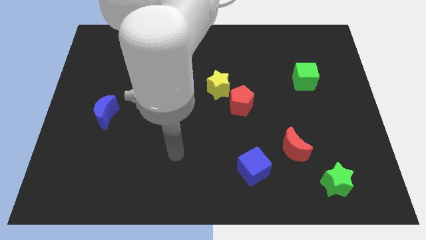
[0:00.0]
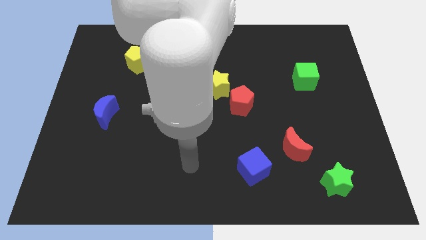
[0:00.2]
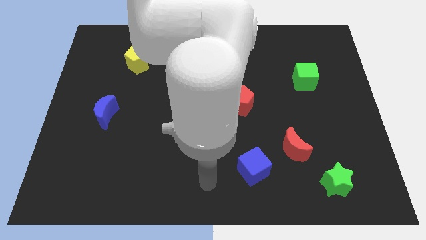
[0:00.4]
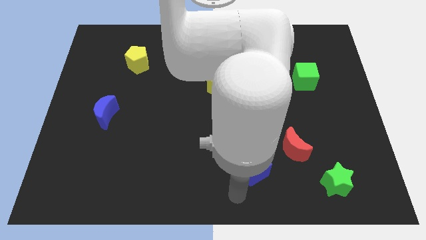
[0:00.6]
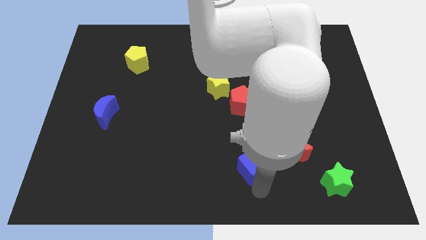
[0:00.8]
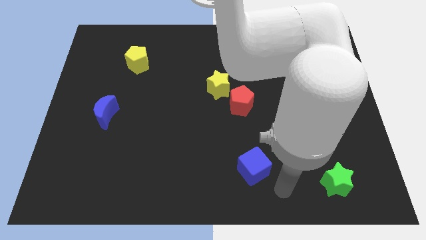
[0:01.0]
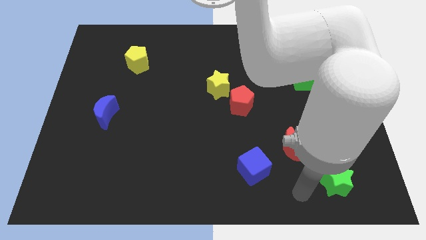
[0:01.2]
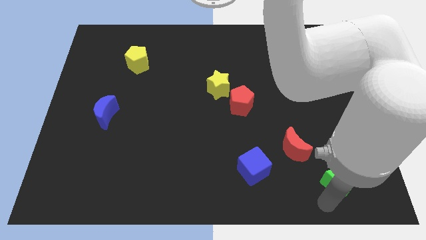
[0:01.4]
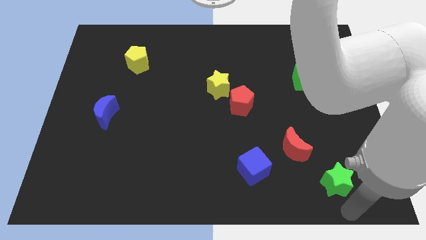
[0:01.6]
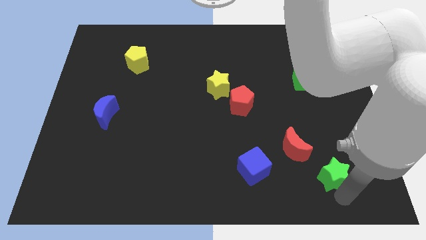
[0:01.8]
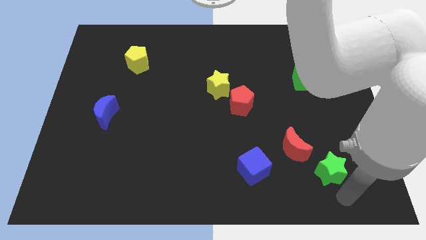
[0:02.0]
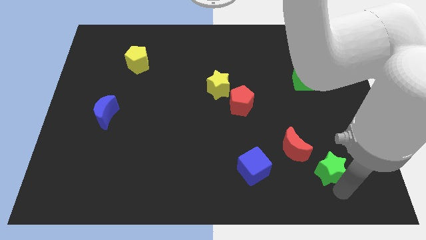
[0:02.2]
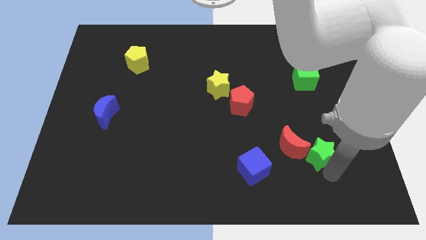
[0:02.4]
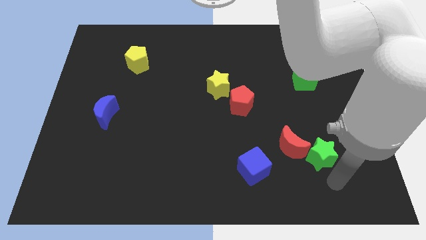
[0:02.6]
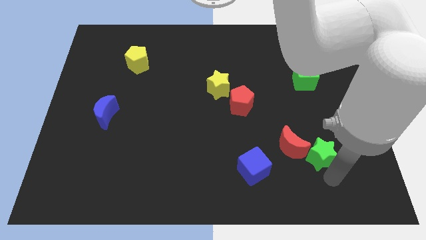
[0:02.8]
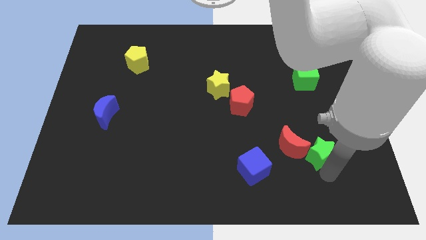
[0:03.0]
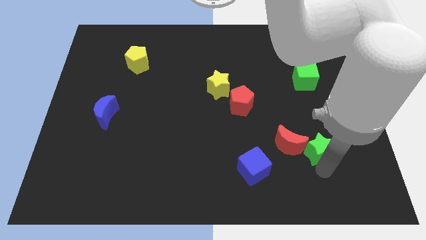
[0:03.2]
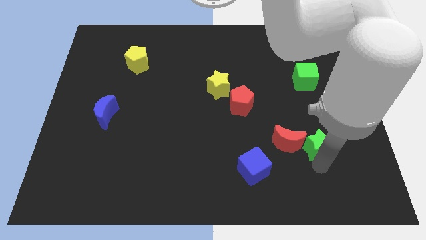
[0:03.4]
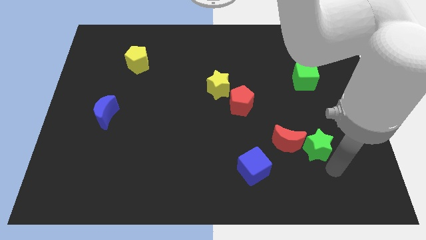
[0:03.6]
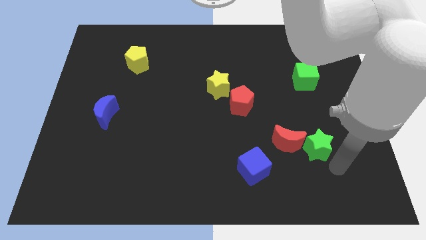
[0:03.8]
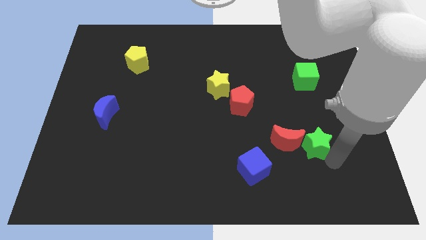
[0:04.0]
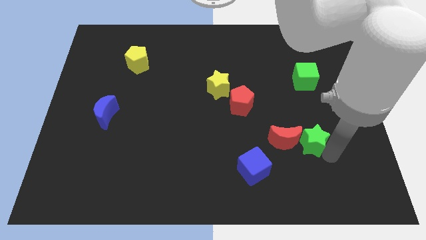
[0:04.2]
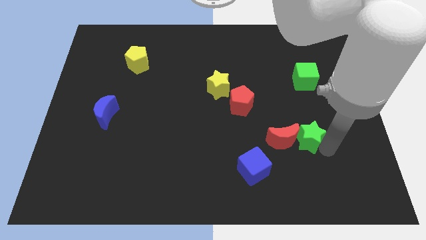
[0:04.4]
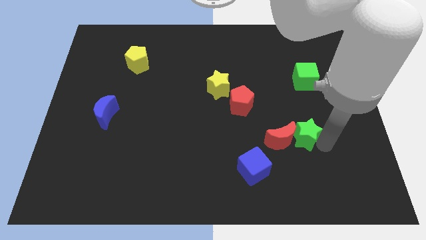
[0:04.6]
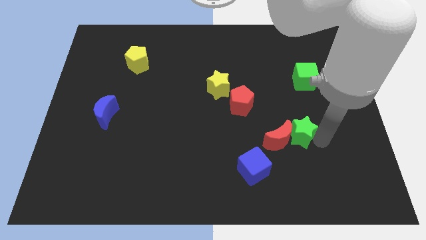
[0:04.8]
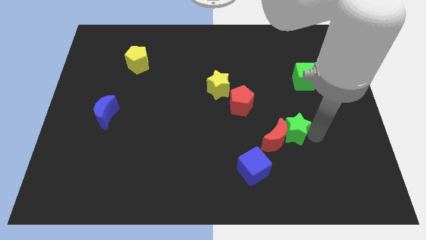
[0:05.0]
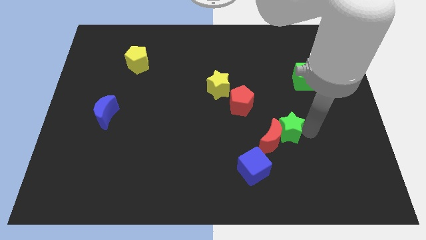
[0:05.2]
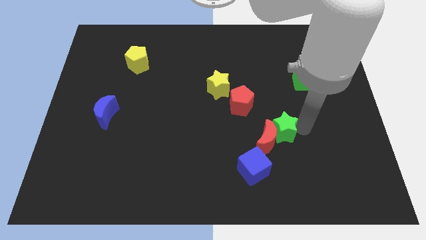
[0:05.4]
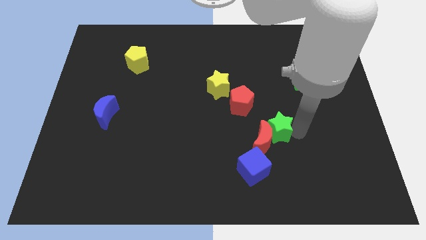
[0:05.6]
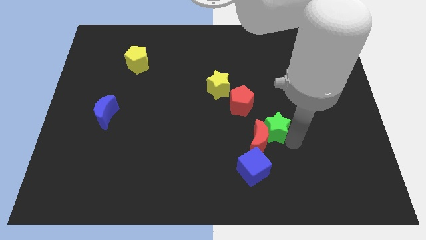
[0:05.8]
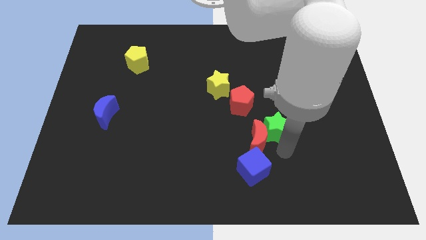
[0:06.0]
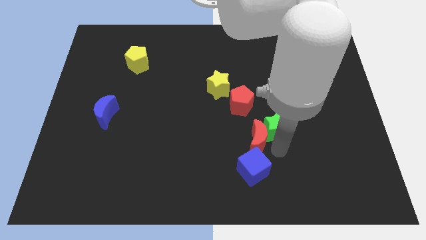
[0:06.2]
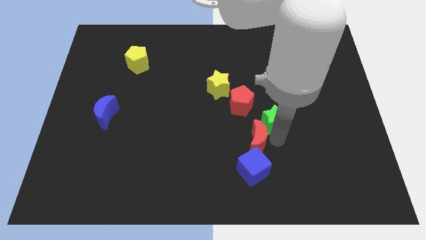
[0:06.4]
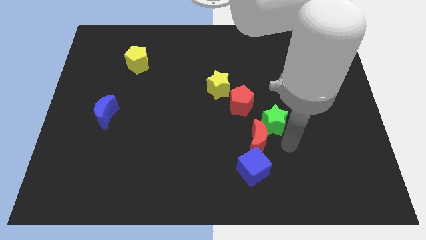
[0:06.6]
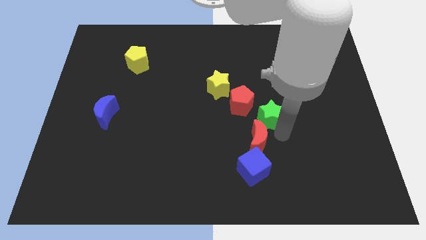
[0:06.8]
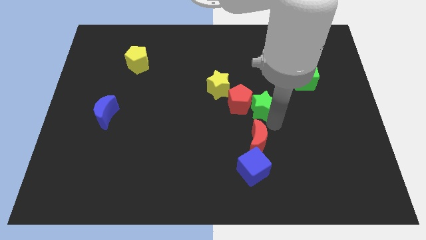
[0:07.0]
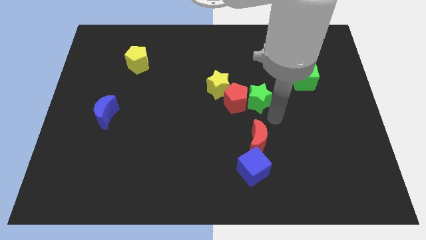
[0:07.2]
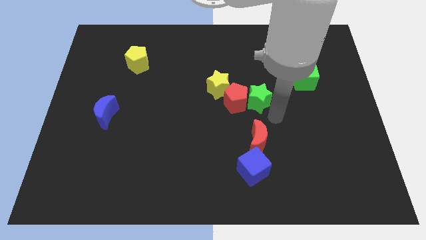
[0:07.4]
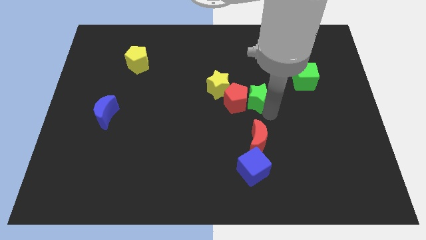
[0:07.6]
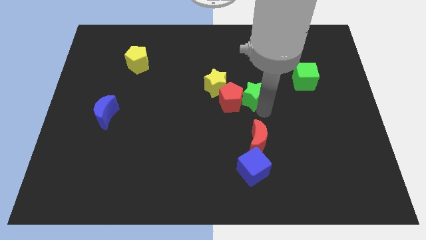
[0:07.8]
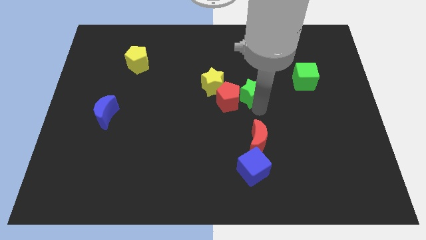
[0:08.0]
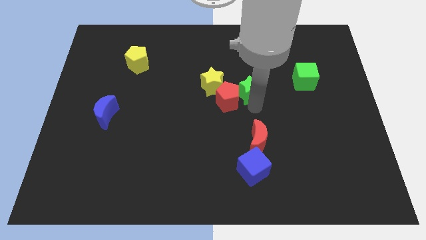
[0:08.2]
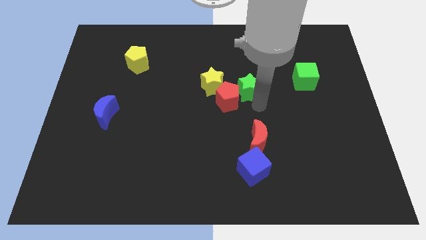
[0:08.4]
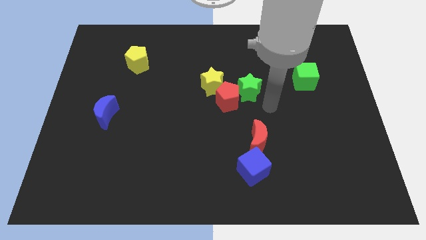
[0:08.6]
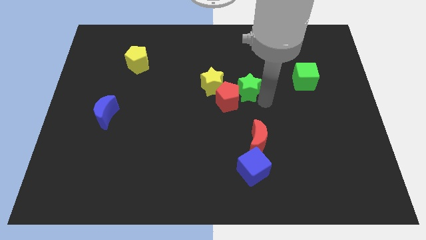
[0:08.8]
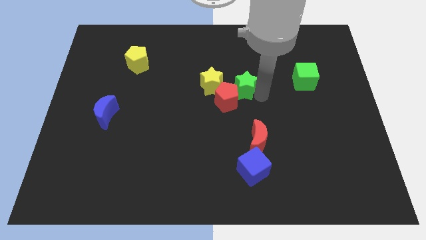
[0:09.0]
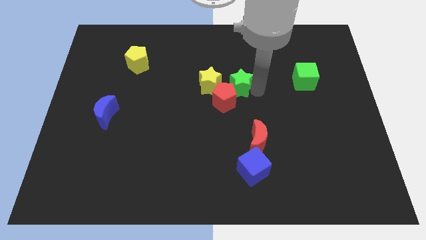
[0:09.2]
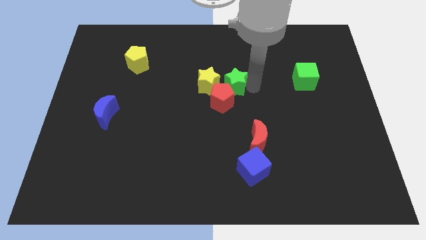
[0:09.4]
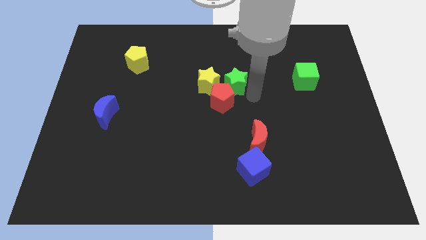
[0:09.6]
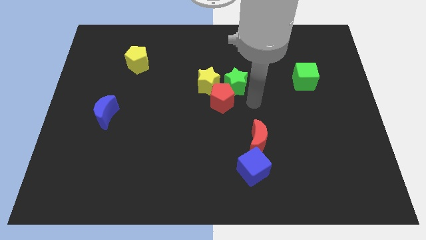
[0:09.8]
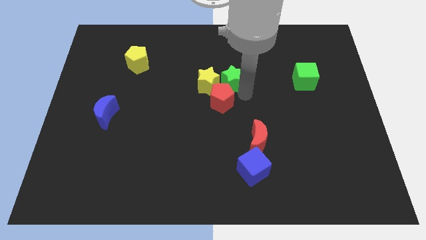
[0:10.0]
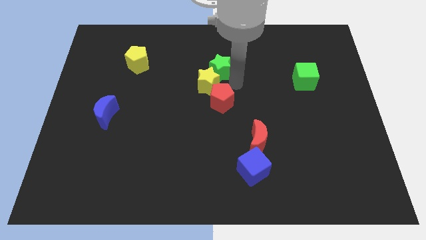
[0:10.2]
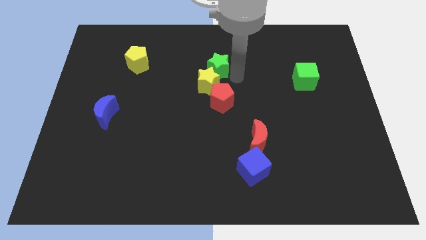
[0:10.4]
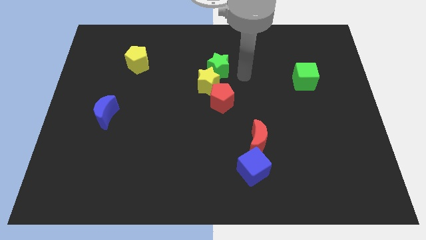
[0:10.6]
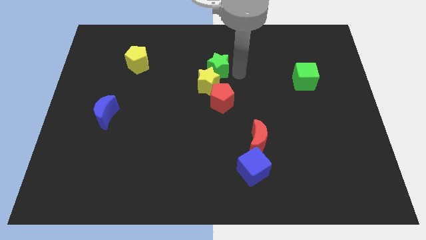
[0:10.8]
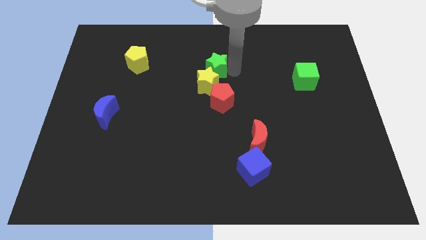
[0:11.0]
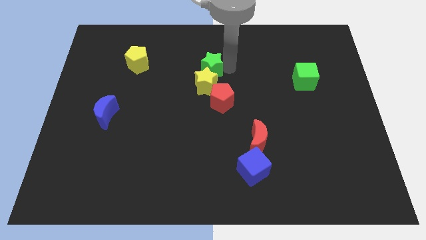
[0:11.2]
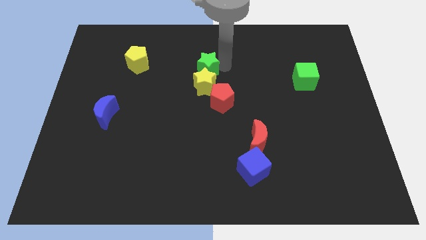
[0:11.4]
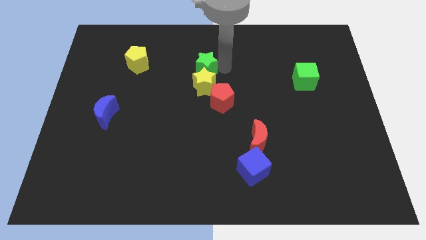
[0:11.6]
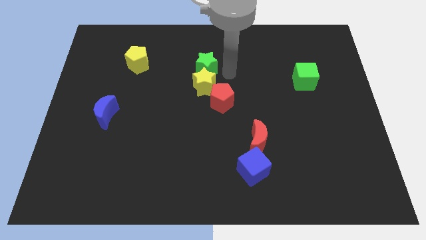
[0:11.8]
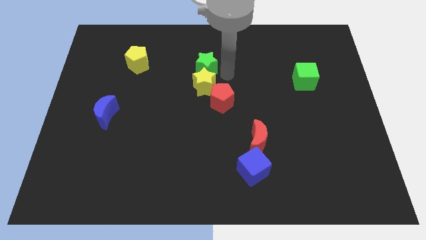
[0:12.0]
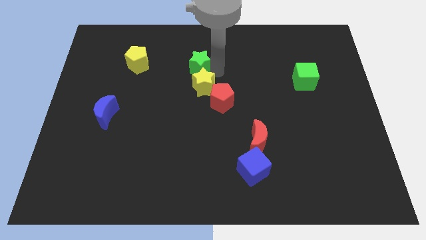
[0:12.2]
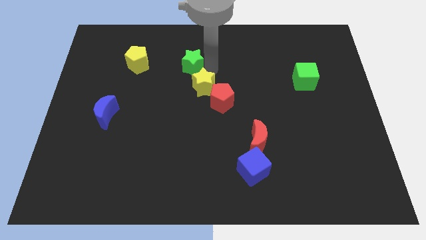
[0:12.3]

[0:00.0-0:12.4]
slide the green star right of the yellow pentagon

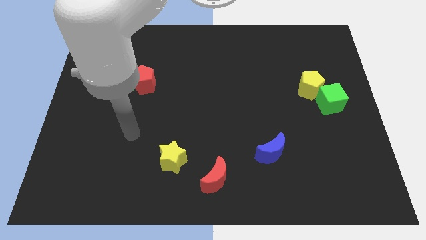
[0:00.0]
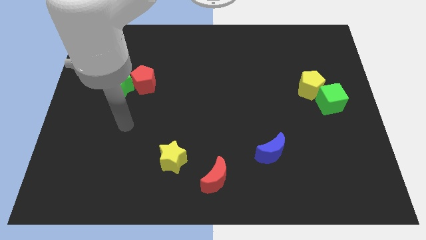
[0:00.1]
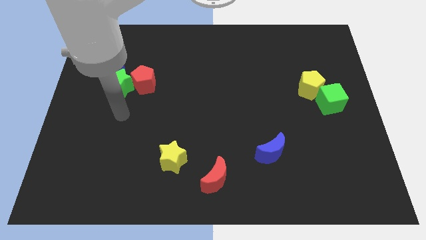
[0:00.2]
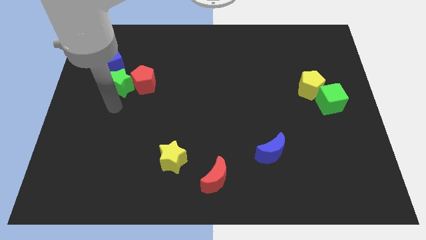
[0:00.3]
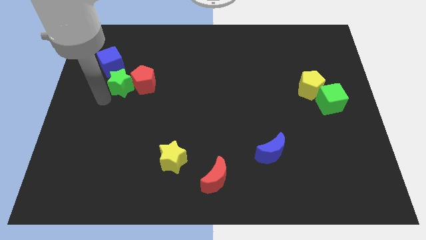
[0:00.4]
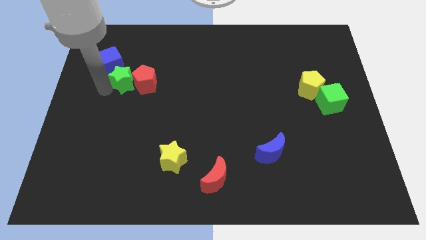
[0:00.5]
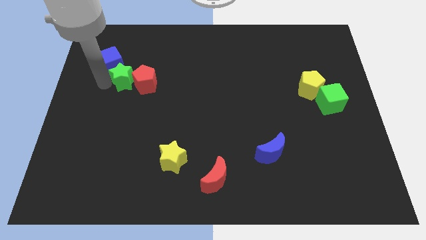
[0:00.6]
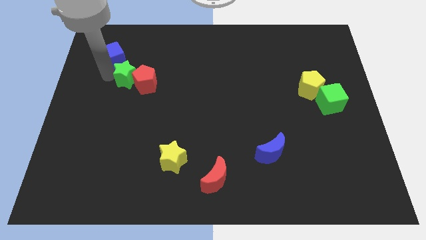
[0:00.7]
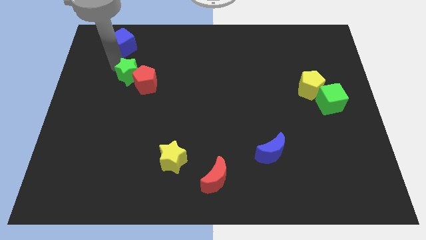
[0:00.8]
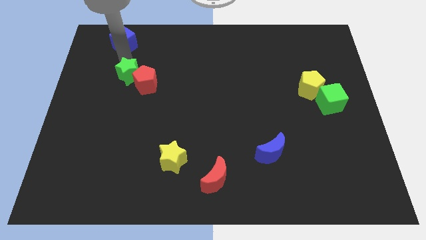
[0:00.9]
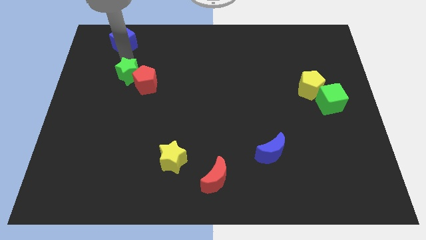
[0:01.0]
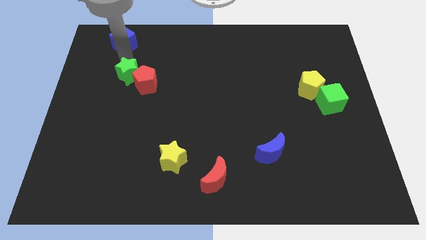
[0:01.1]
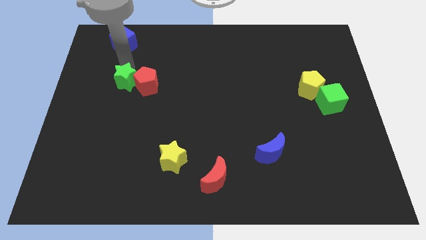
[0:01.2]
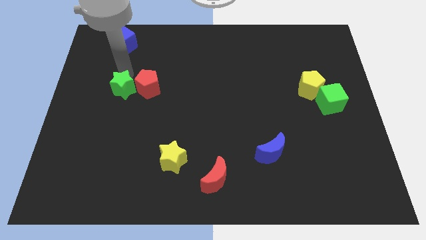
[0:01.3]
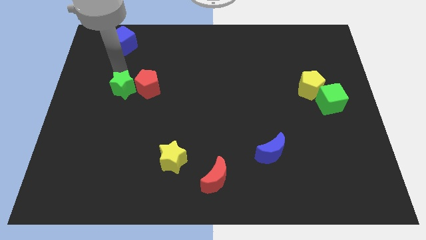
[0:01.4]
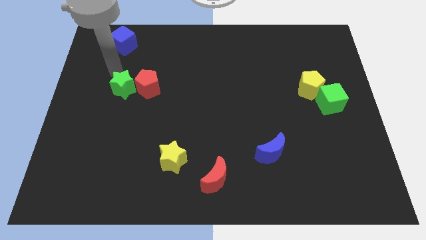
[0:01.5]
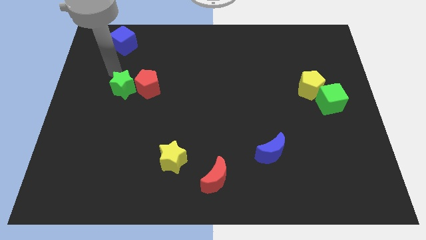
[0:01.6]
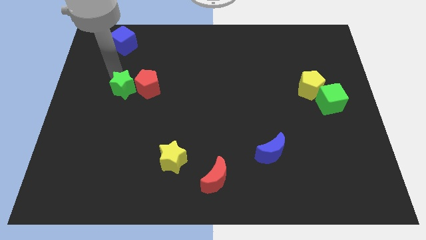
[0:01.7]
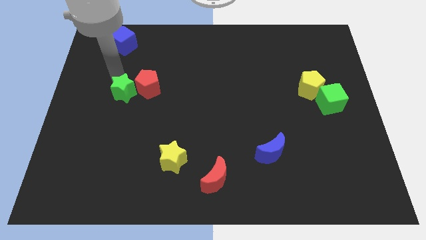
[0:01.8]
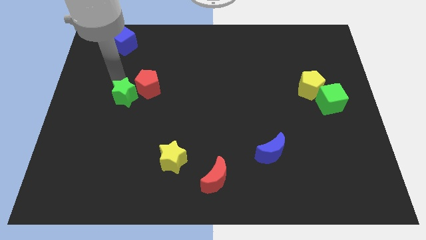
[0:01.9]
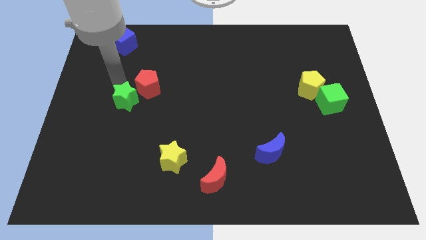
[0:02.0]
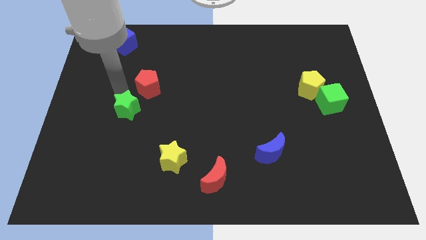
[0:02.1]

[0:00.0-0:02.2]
push the green star to the bottom side of the red pentagon
